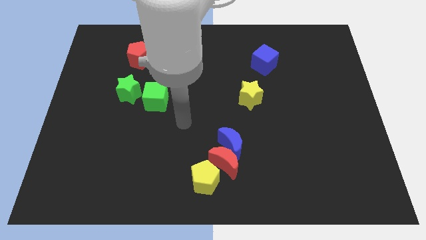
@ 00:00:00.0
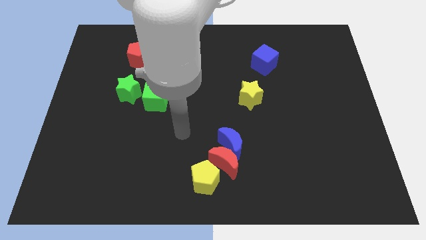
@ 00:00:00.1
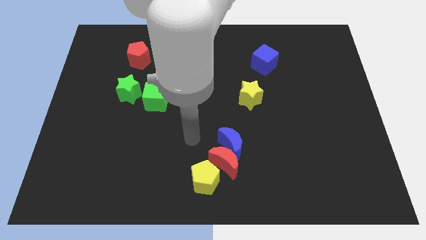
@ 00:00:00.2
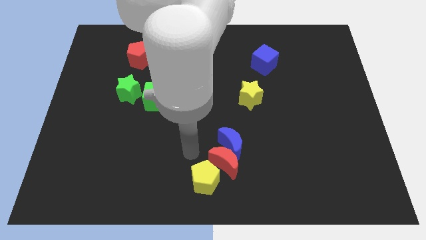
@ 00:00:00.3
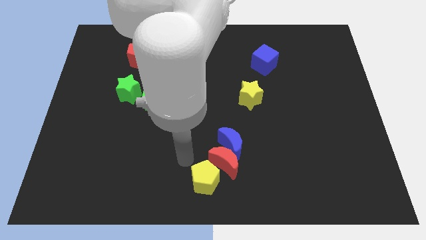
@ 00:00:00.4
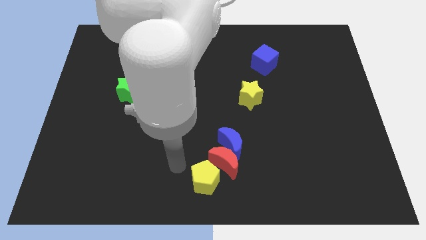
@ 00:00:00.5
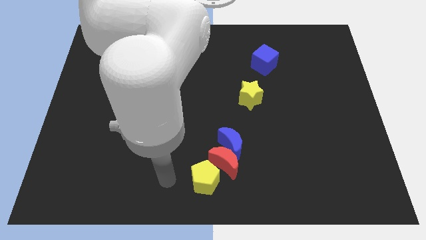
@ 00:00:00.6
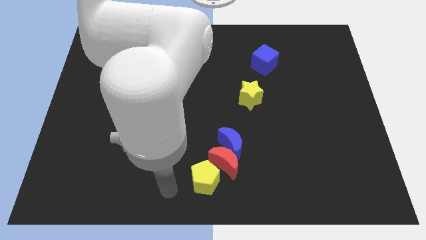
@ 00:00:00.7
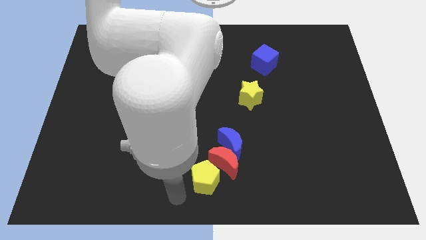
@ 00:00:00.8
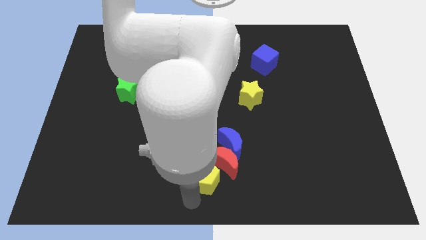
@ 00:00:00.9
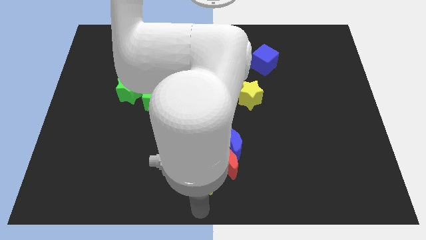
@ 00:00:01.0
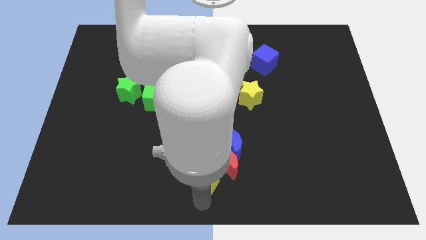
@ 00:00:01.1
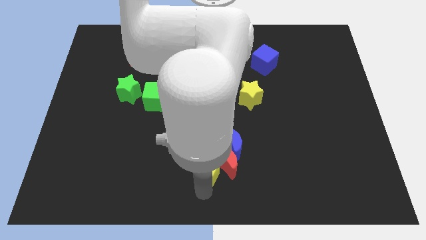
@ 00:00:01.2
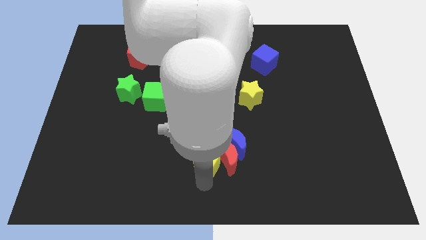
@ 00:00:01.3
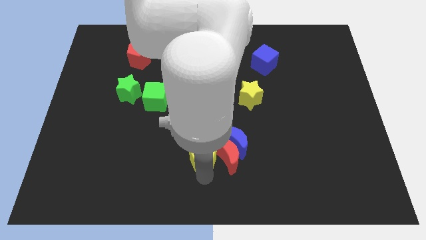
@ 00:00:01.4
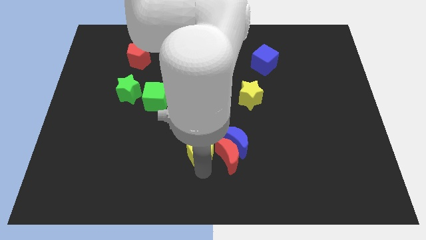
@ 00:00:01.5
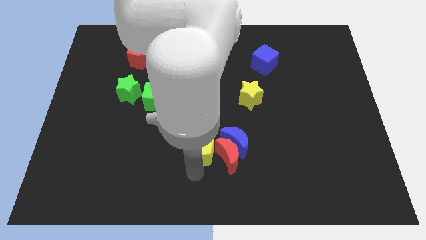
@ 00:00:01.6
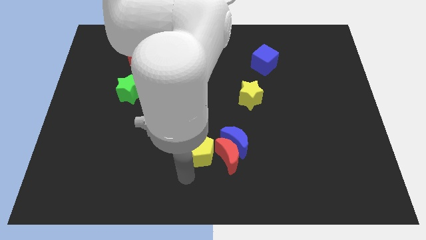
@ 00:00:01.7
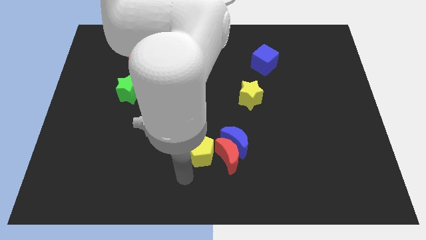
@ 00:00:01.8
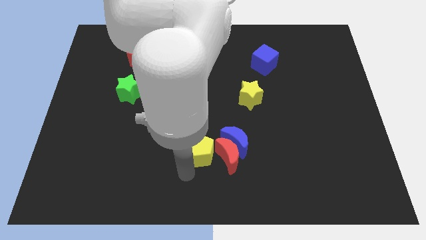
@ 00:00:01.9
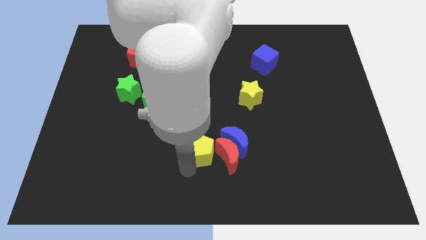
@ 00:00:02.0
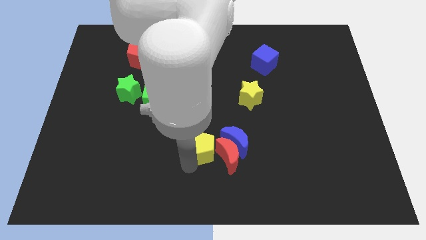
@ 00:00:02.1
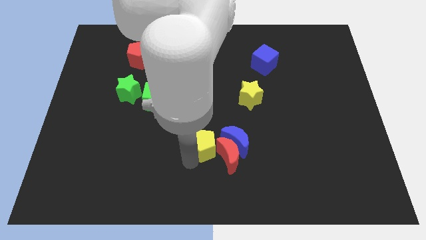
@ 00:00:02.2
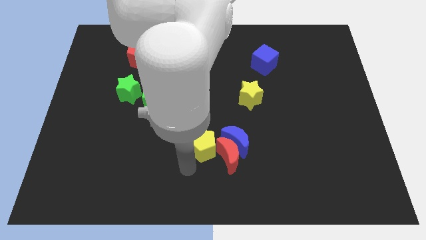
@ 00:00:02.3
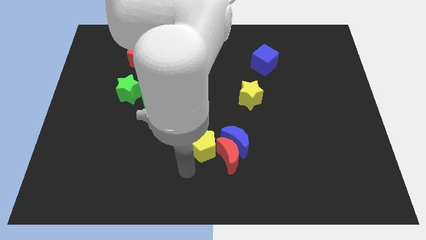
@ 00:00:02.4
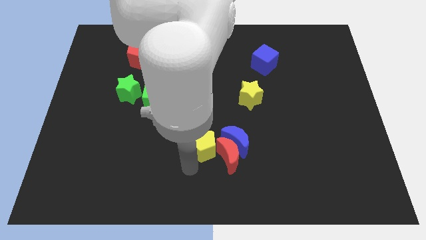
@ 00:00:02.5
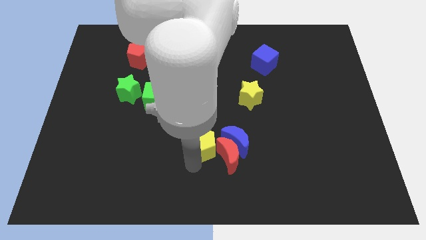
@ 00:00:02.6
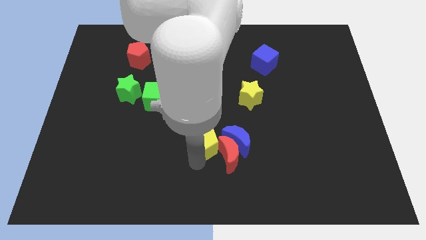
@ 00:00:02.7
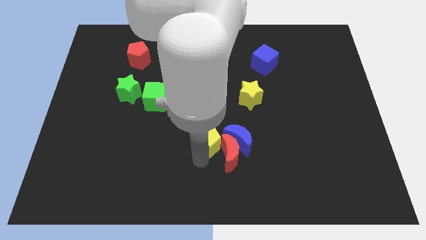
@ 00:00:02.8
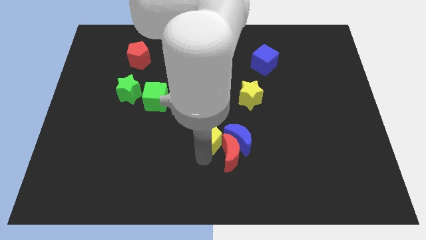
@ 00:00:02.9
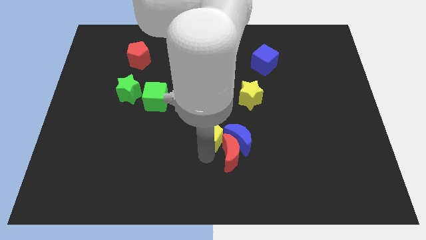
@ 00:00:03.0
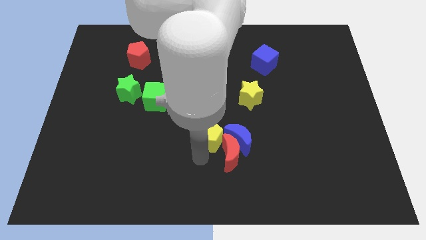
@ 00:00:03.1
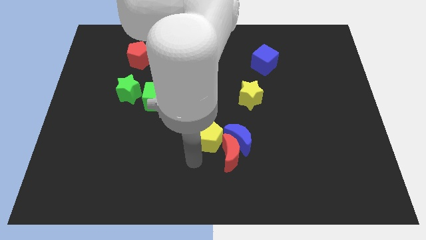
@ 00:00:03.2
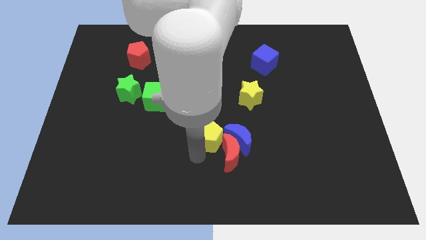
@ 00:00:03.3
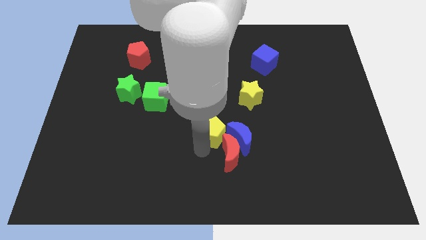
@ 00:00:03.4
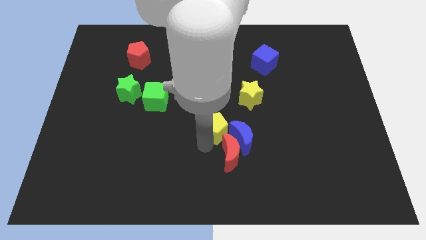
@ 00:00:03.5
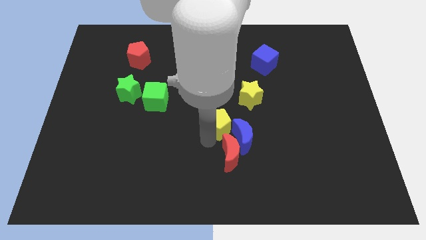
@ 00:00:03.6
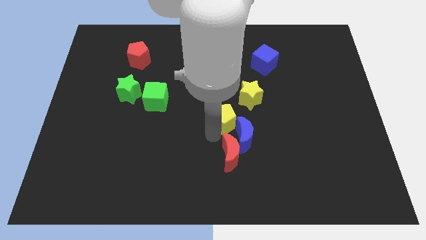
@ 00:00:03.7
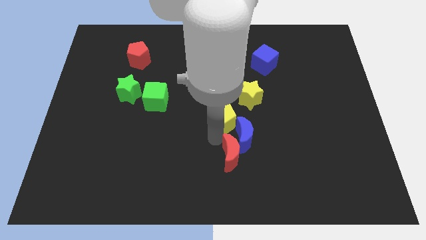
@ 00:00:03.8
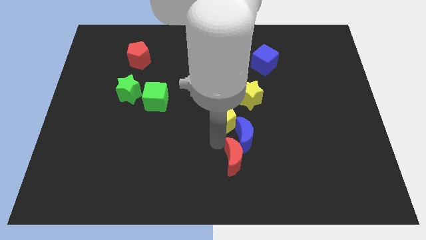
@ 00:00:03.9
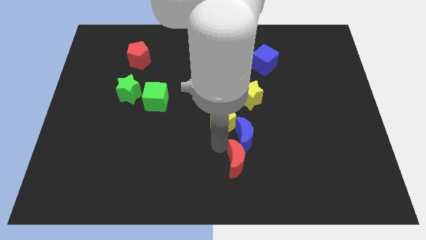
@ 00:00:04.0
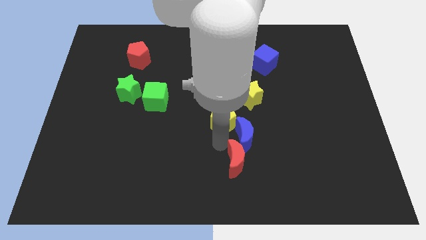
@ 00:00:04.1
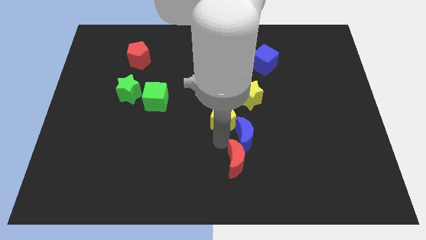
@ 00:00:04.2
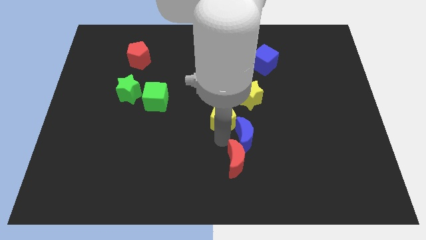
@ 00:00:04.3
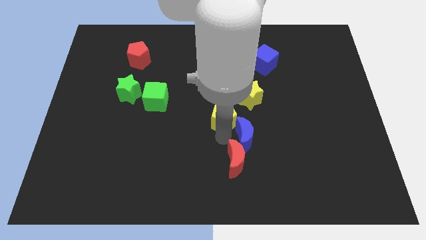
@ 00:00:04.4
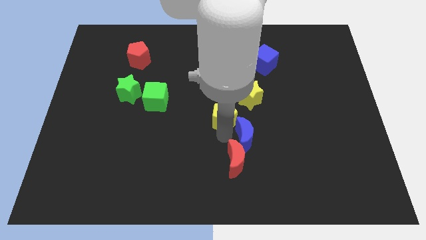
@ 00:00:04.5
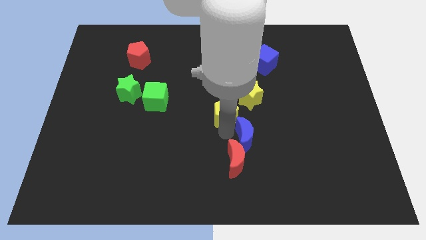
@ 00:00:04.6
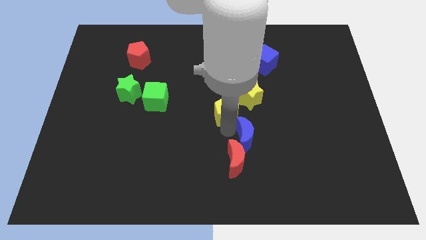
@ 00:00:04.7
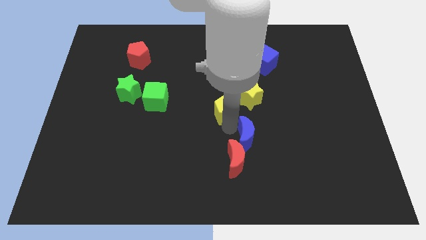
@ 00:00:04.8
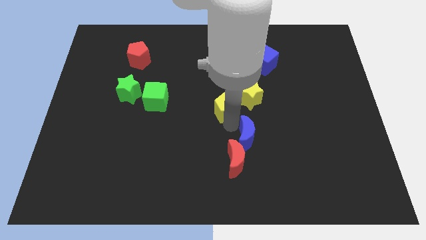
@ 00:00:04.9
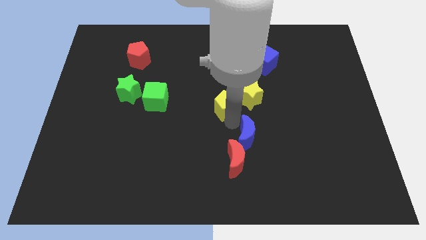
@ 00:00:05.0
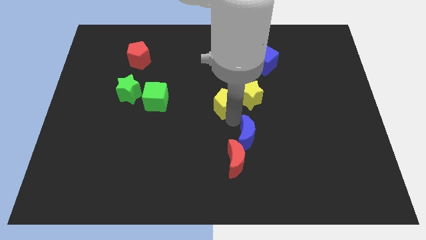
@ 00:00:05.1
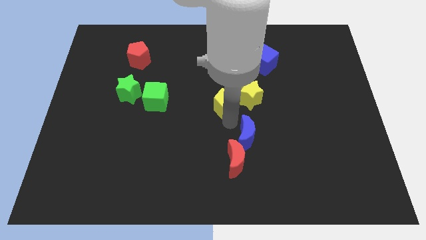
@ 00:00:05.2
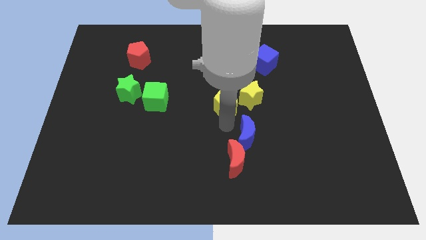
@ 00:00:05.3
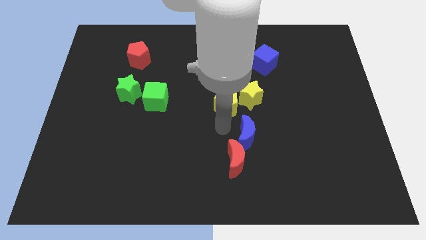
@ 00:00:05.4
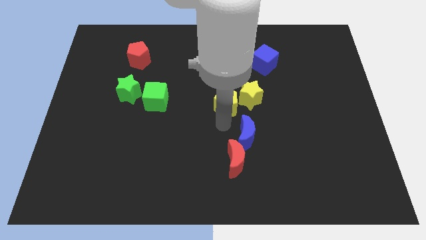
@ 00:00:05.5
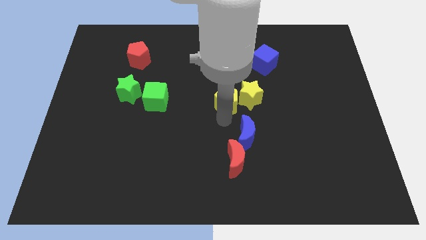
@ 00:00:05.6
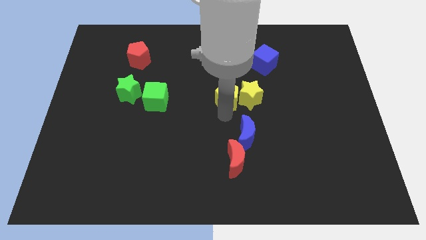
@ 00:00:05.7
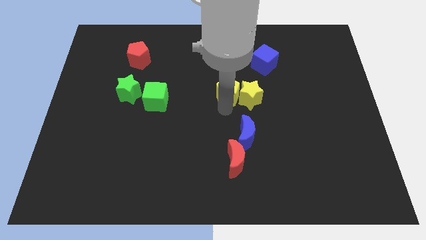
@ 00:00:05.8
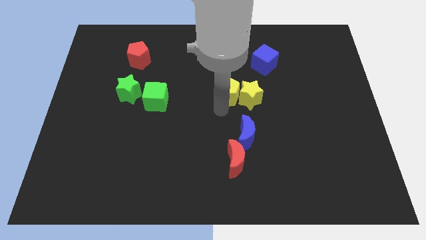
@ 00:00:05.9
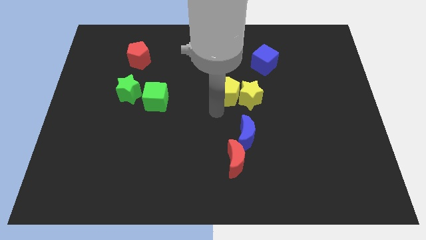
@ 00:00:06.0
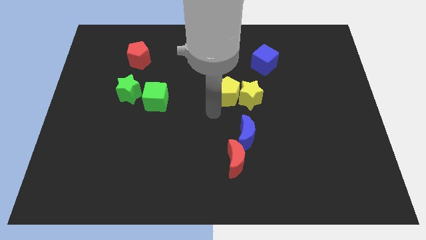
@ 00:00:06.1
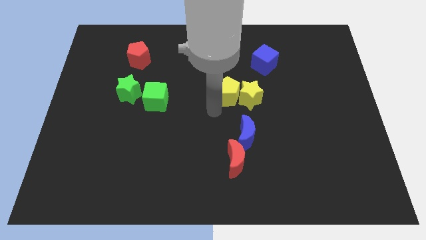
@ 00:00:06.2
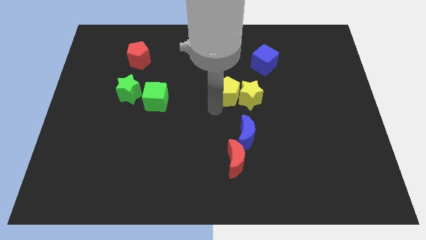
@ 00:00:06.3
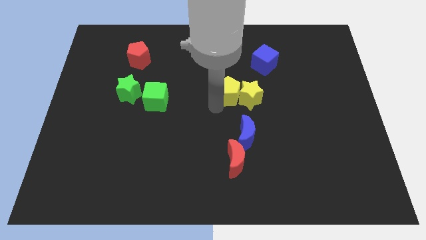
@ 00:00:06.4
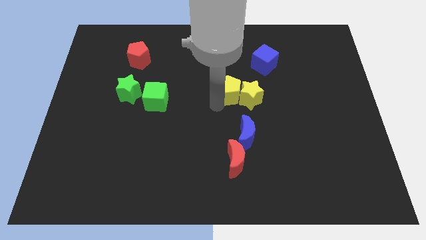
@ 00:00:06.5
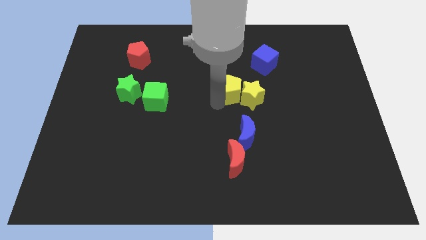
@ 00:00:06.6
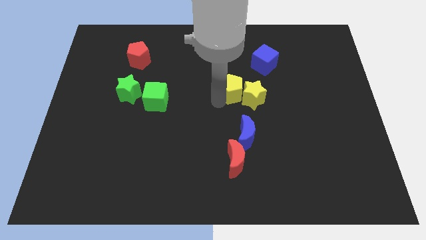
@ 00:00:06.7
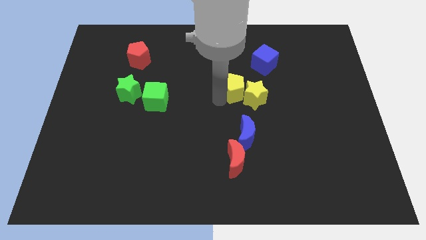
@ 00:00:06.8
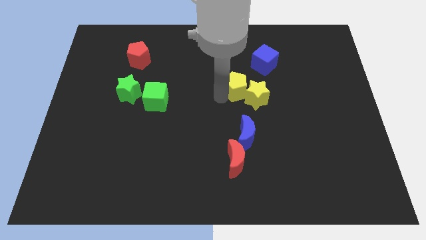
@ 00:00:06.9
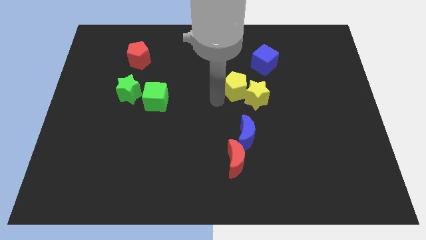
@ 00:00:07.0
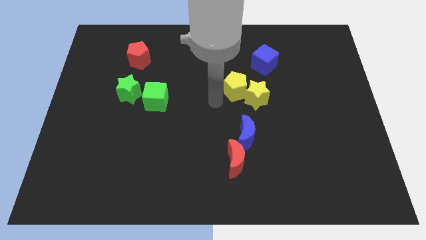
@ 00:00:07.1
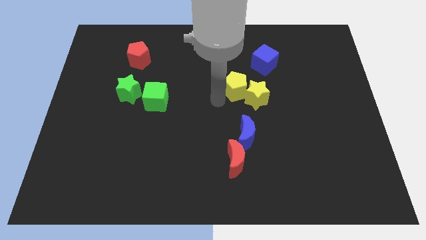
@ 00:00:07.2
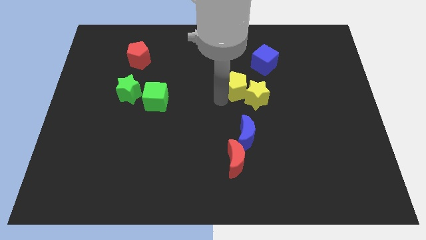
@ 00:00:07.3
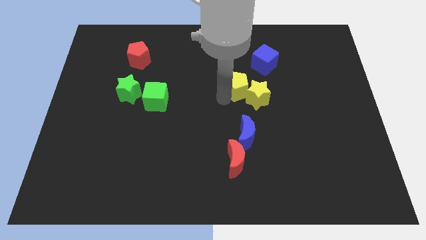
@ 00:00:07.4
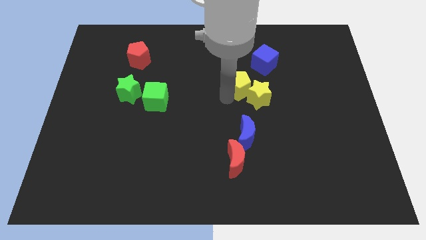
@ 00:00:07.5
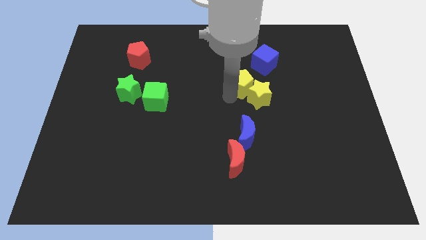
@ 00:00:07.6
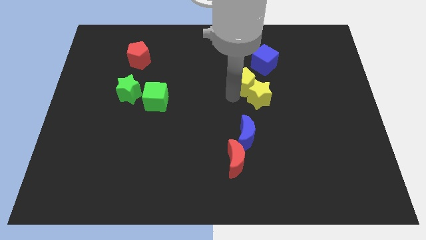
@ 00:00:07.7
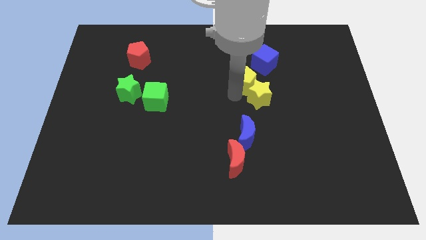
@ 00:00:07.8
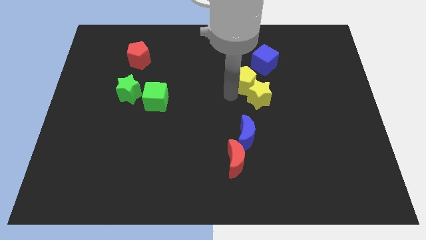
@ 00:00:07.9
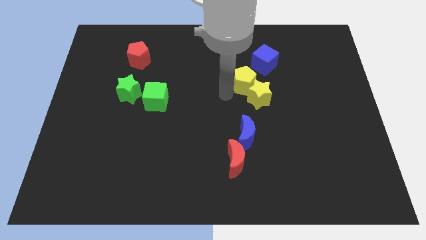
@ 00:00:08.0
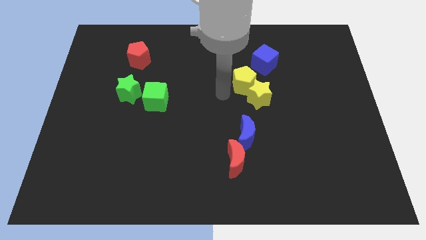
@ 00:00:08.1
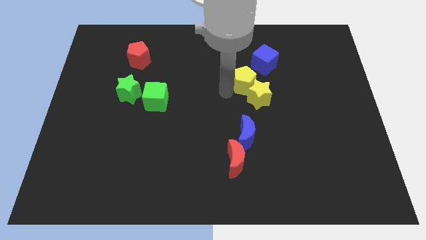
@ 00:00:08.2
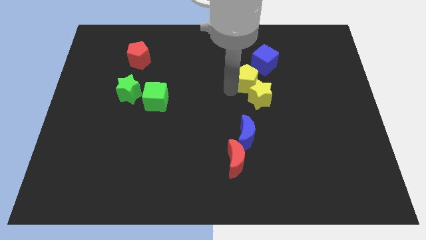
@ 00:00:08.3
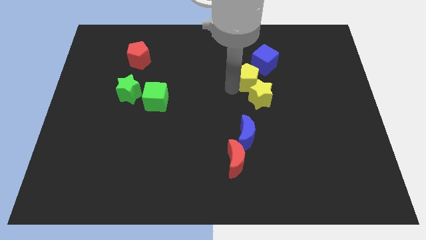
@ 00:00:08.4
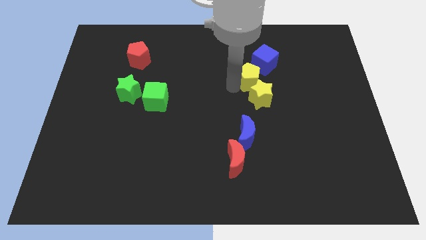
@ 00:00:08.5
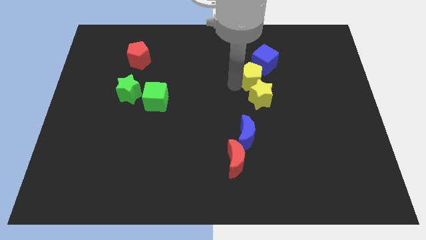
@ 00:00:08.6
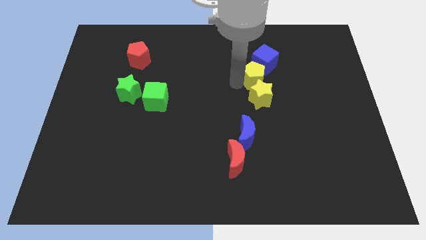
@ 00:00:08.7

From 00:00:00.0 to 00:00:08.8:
move the yellow pentagon next to the blue cube
